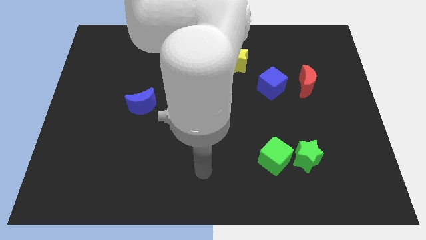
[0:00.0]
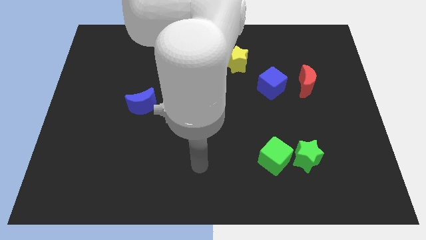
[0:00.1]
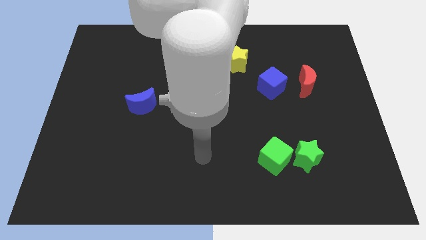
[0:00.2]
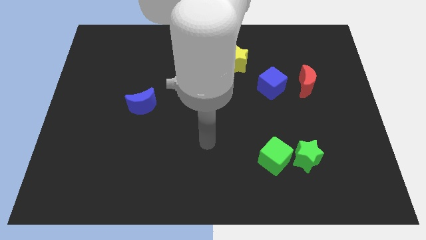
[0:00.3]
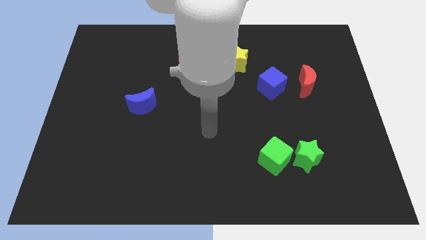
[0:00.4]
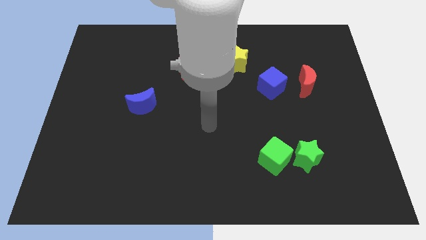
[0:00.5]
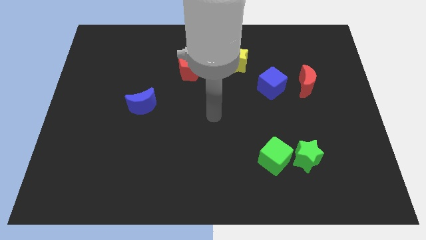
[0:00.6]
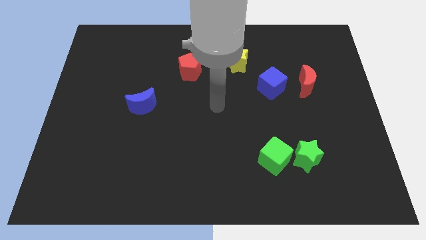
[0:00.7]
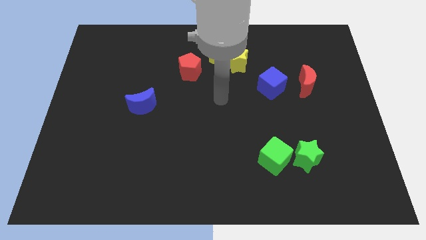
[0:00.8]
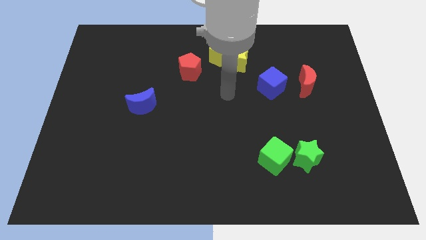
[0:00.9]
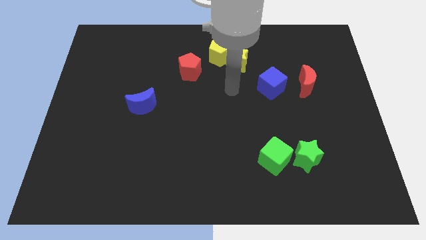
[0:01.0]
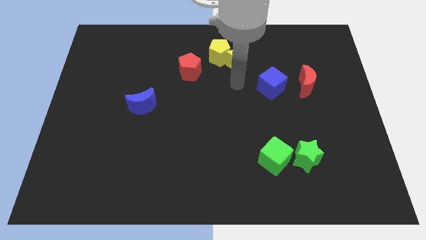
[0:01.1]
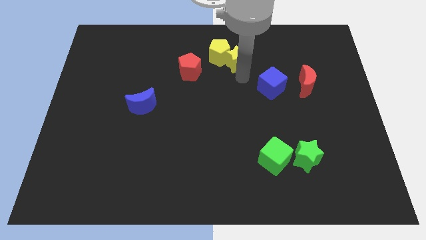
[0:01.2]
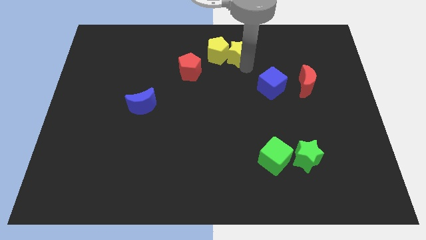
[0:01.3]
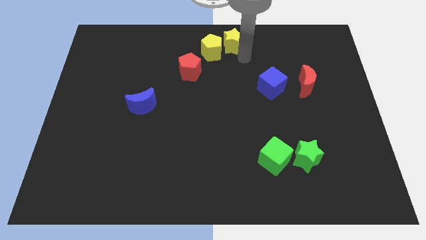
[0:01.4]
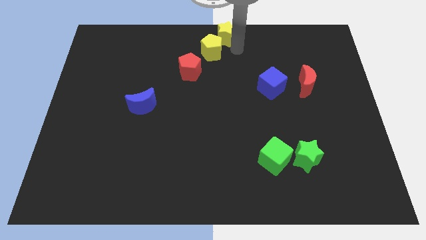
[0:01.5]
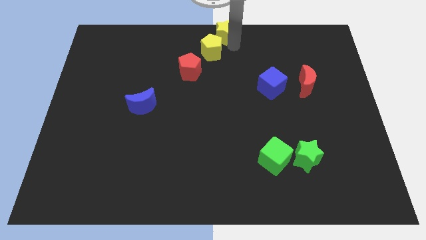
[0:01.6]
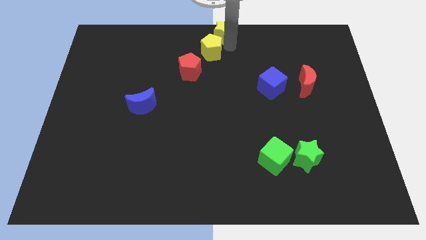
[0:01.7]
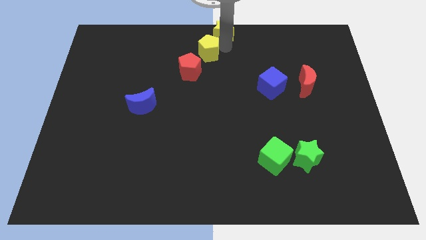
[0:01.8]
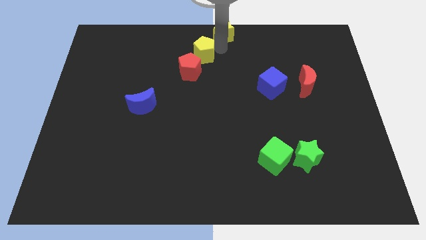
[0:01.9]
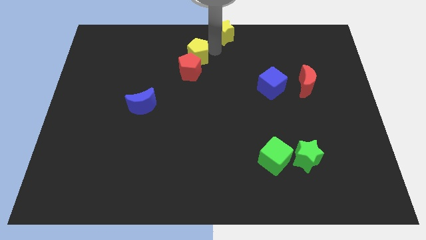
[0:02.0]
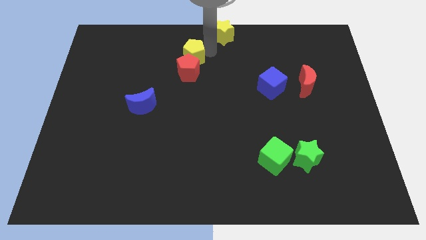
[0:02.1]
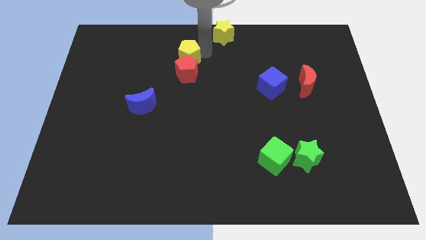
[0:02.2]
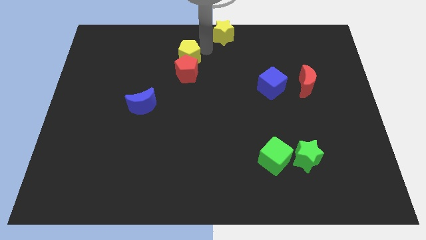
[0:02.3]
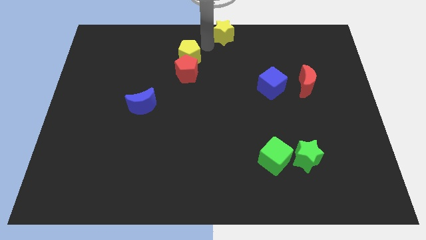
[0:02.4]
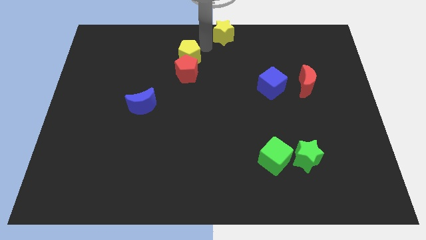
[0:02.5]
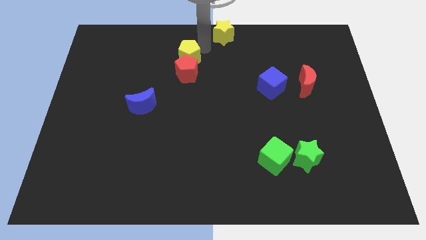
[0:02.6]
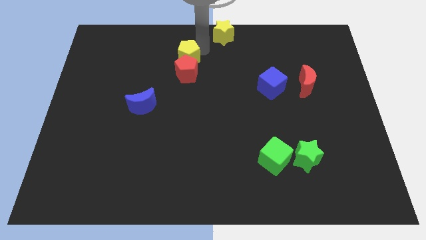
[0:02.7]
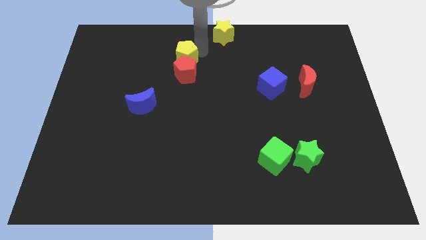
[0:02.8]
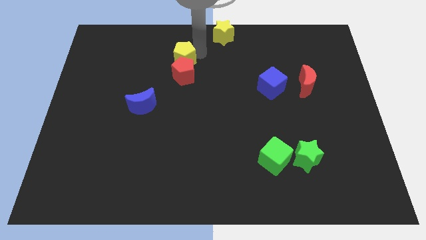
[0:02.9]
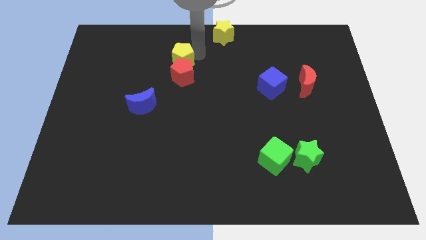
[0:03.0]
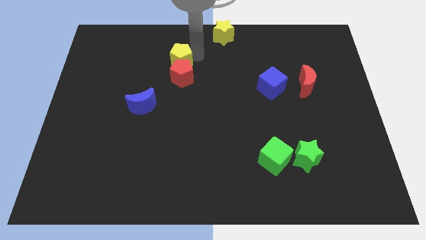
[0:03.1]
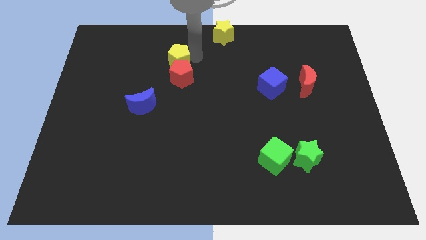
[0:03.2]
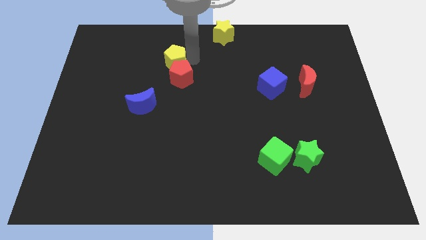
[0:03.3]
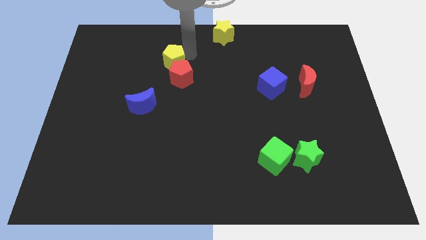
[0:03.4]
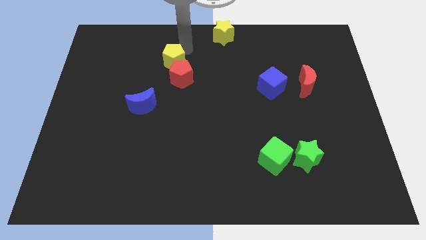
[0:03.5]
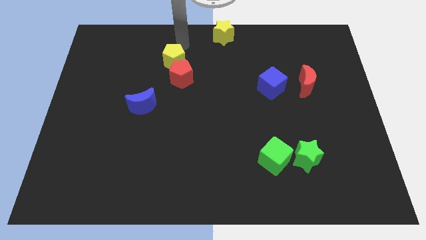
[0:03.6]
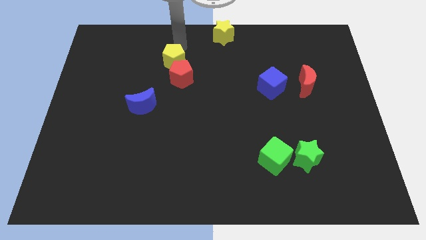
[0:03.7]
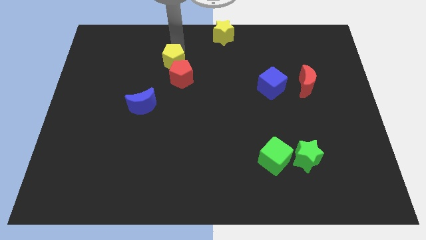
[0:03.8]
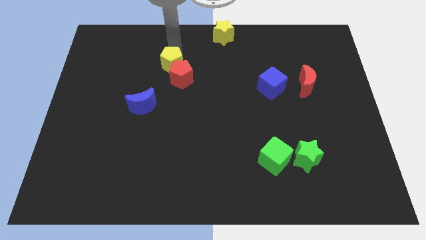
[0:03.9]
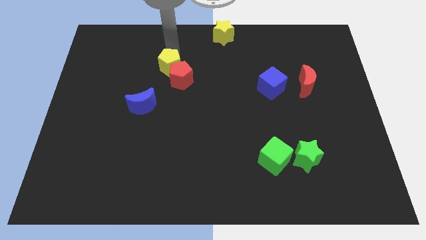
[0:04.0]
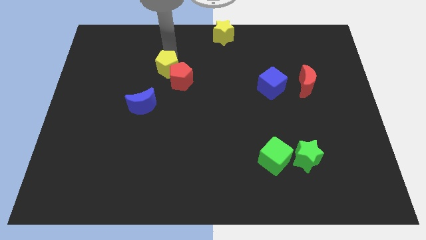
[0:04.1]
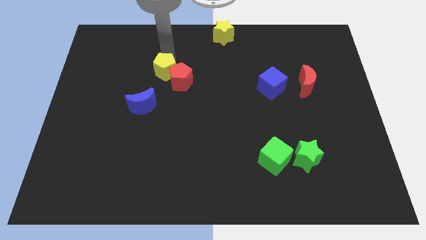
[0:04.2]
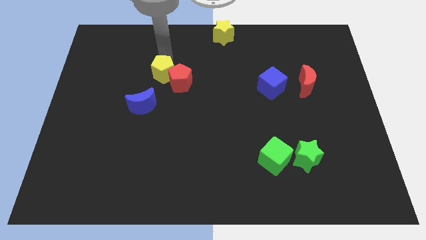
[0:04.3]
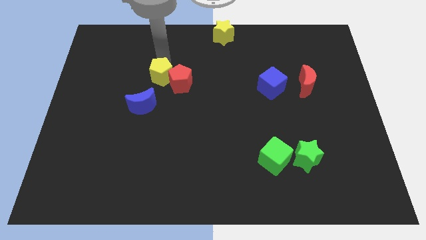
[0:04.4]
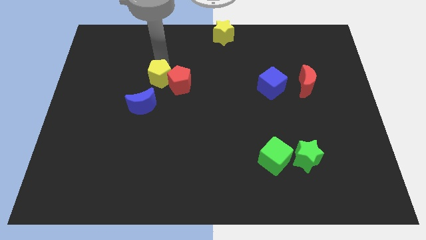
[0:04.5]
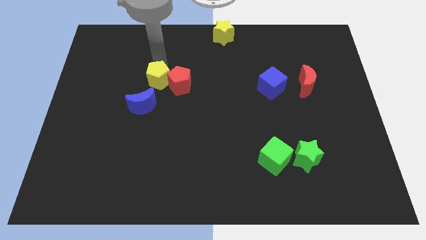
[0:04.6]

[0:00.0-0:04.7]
put the yellow pentagon to the bottom left of the red pentagon

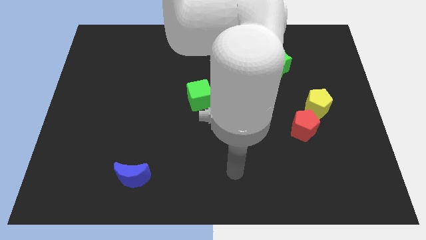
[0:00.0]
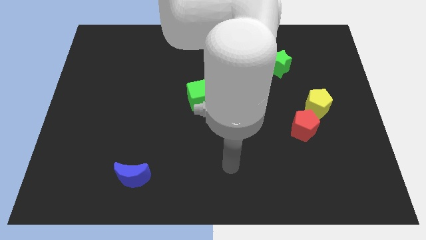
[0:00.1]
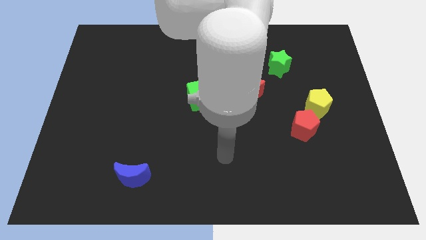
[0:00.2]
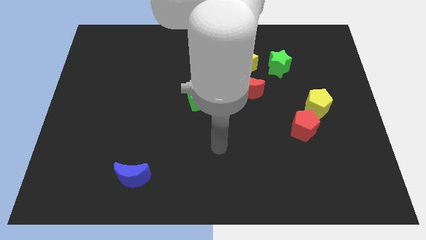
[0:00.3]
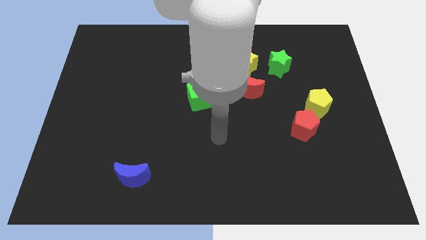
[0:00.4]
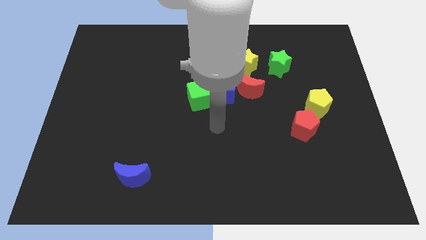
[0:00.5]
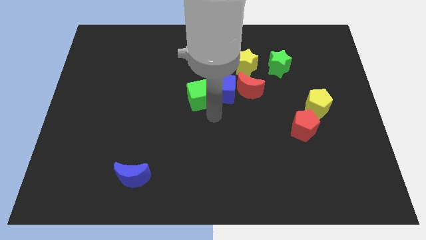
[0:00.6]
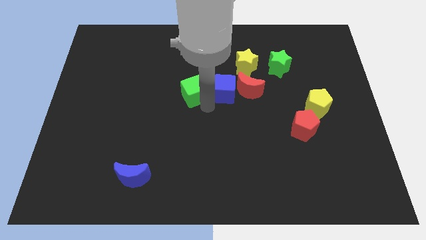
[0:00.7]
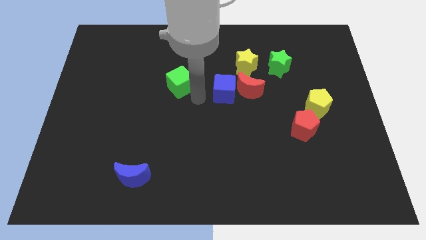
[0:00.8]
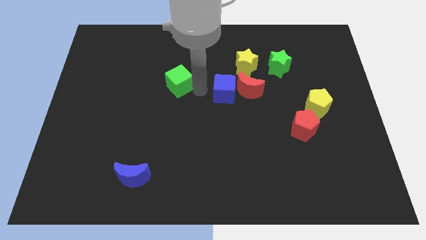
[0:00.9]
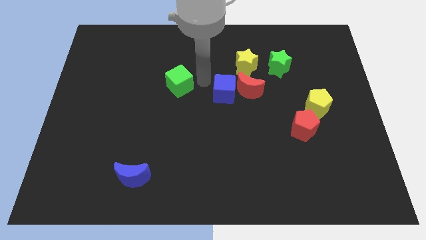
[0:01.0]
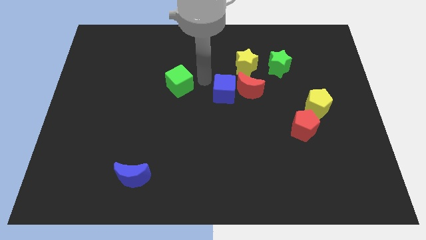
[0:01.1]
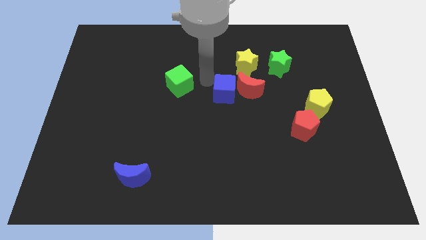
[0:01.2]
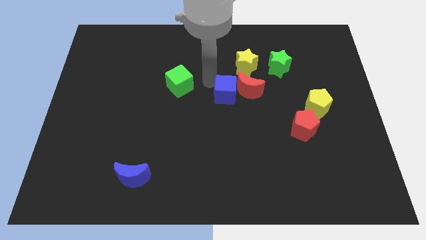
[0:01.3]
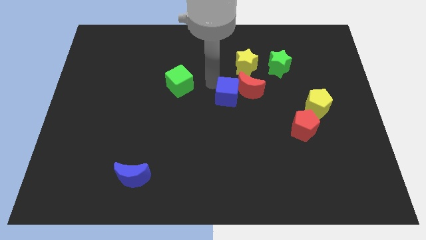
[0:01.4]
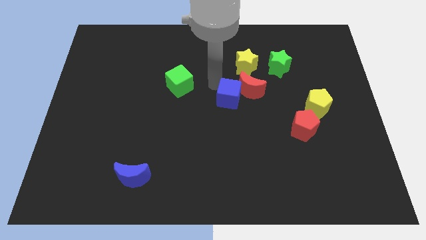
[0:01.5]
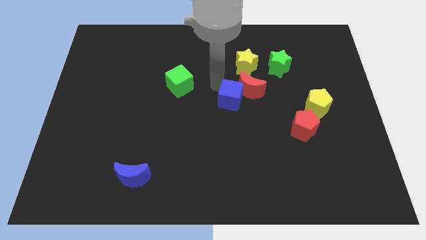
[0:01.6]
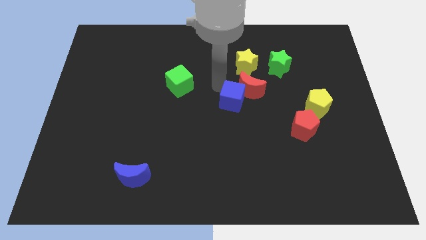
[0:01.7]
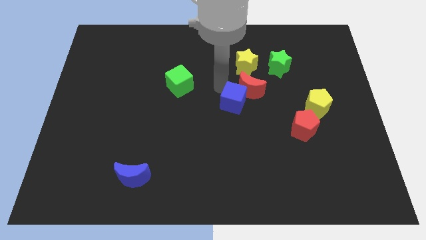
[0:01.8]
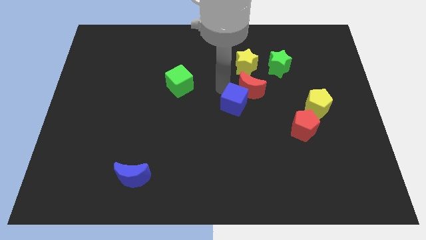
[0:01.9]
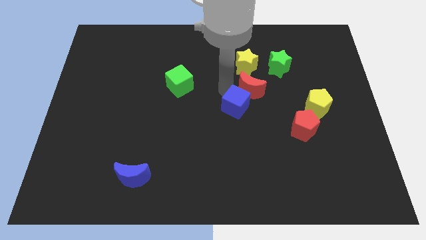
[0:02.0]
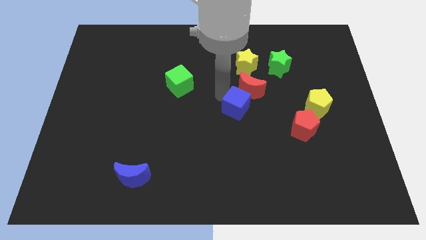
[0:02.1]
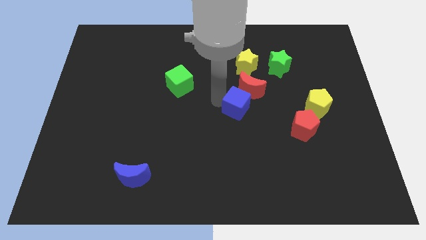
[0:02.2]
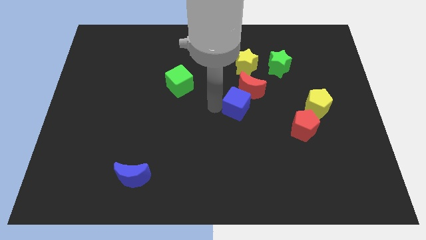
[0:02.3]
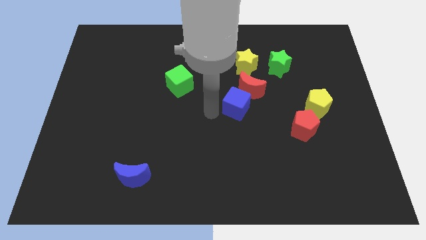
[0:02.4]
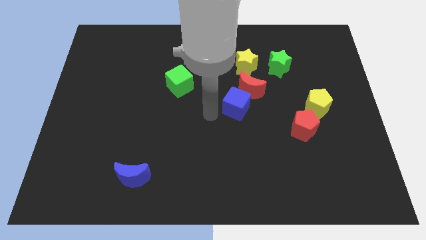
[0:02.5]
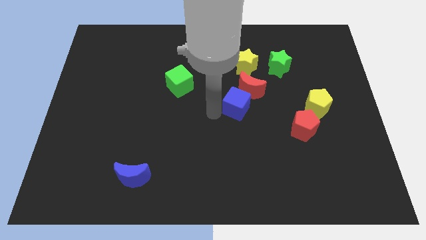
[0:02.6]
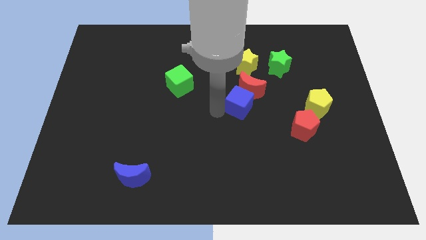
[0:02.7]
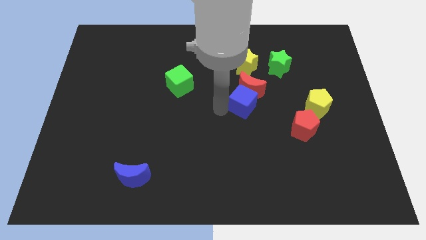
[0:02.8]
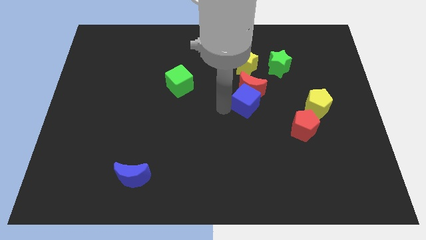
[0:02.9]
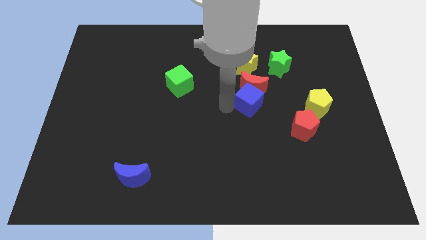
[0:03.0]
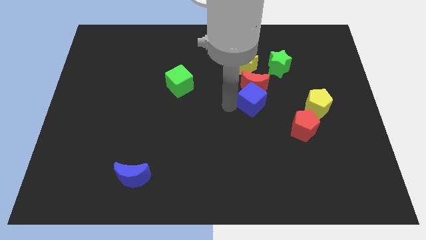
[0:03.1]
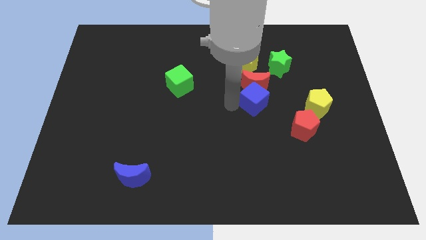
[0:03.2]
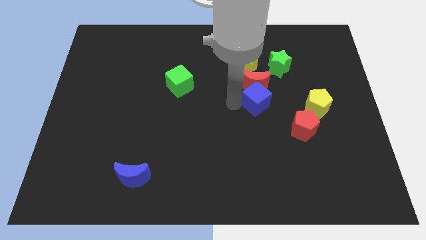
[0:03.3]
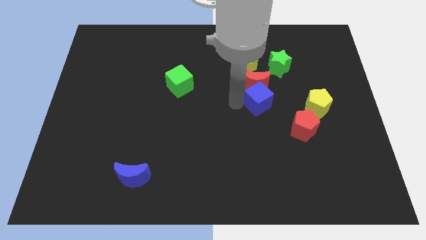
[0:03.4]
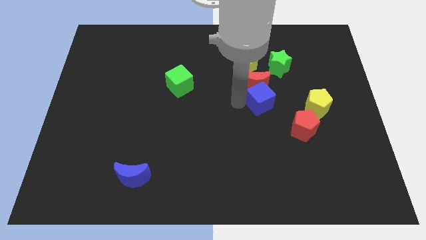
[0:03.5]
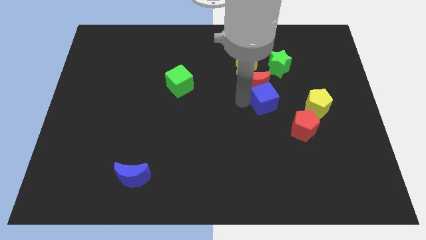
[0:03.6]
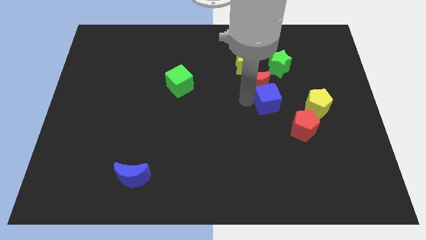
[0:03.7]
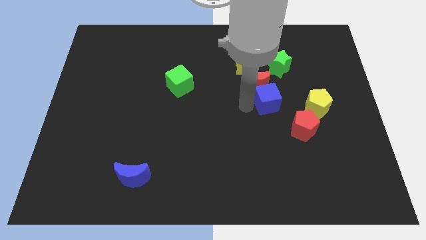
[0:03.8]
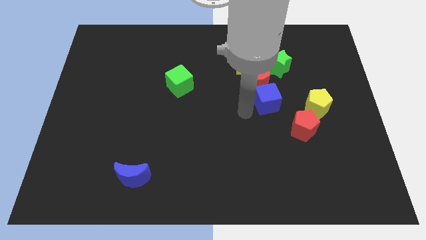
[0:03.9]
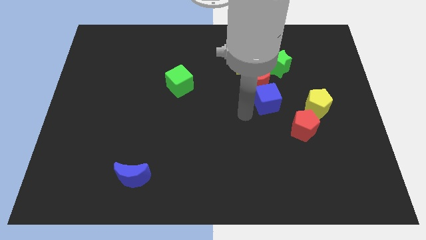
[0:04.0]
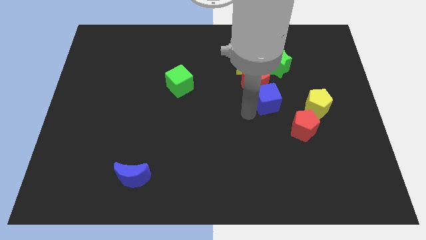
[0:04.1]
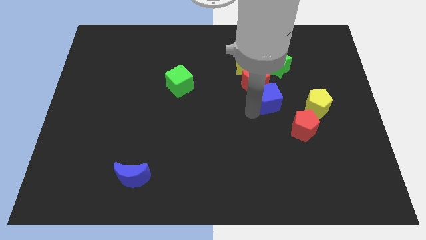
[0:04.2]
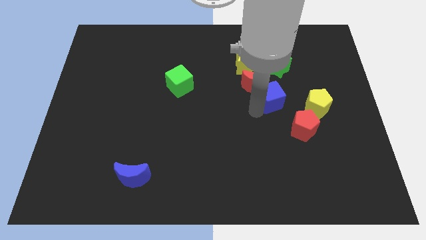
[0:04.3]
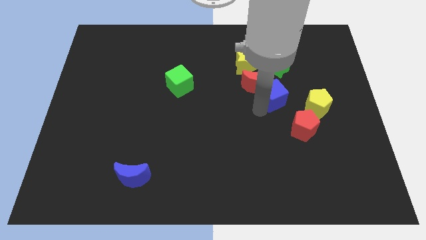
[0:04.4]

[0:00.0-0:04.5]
push the blue cube just right of the red moon
